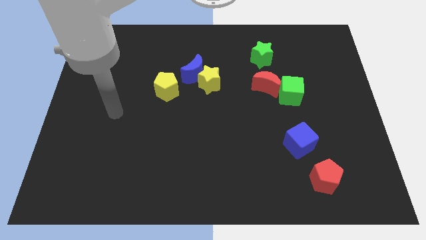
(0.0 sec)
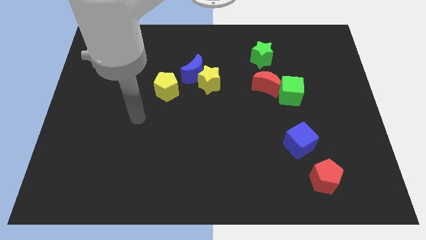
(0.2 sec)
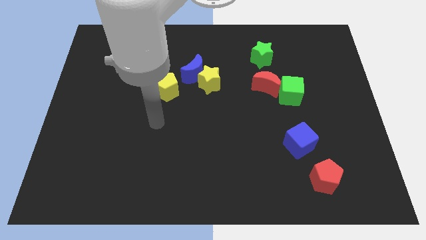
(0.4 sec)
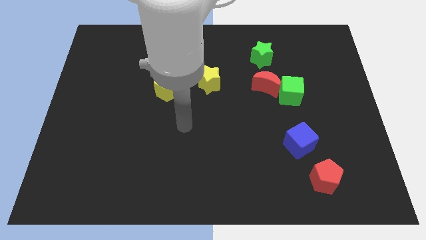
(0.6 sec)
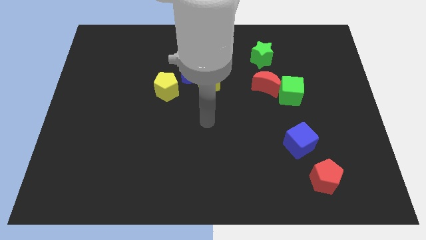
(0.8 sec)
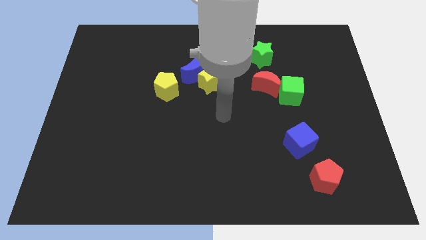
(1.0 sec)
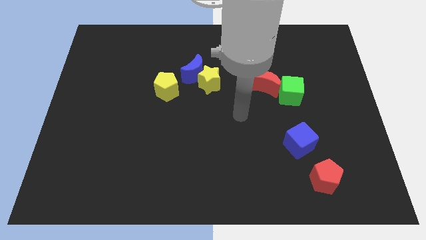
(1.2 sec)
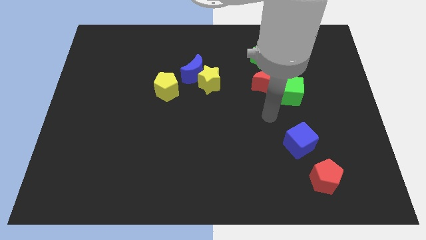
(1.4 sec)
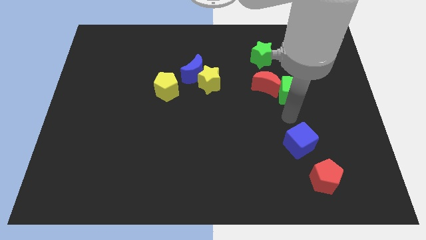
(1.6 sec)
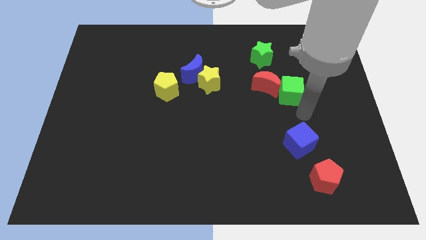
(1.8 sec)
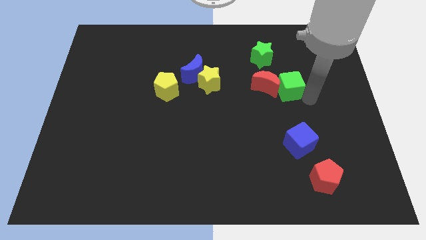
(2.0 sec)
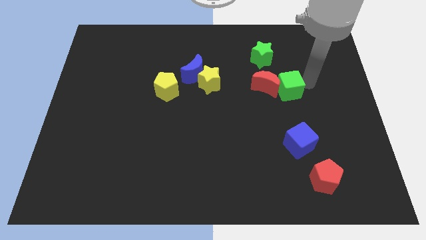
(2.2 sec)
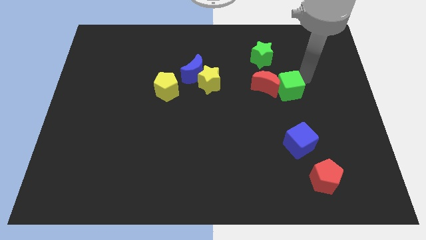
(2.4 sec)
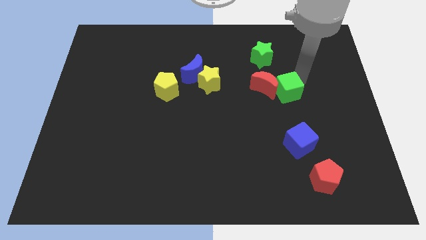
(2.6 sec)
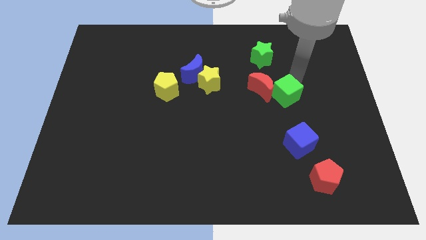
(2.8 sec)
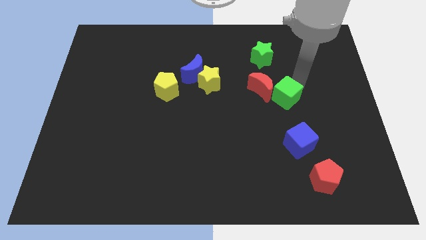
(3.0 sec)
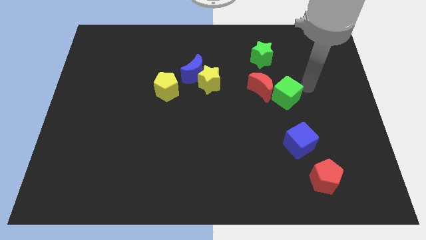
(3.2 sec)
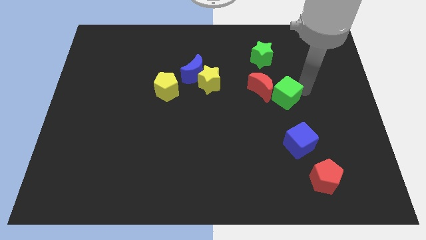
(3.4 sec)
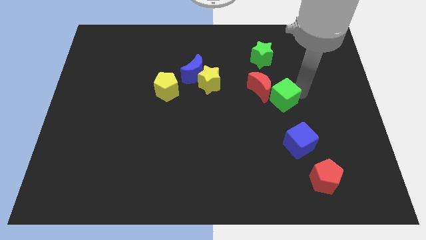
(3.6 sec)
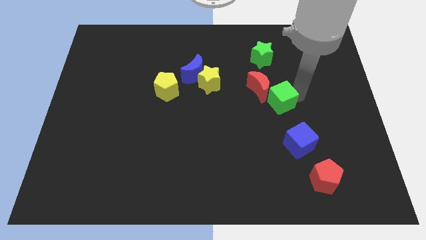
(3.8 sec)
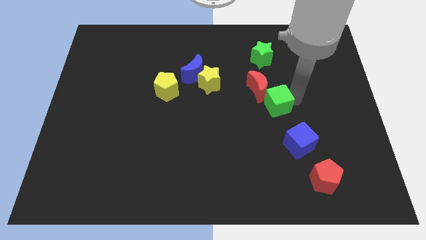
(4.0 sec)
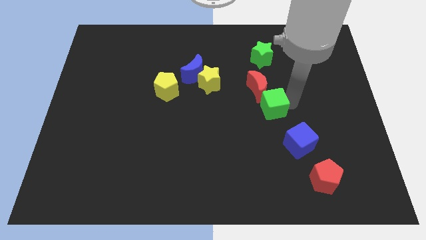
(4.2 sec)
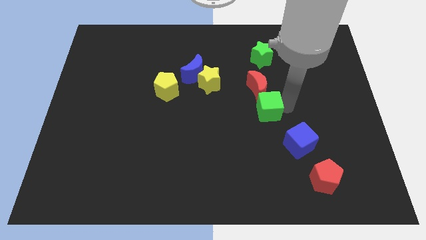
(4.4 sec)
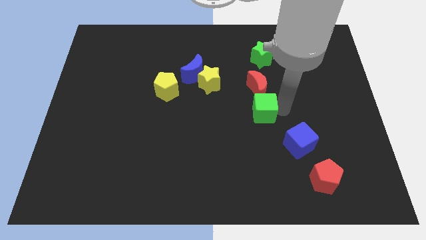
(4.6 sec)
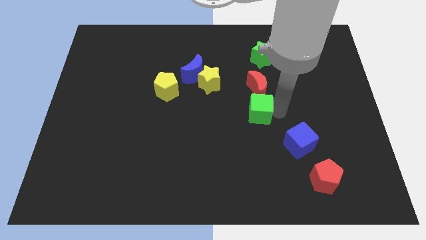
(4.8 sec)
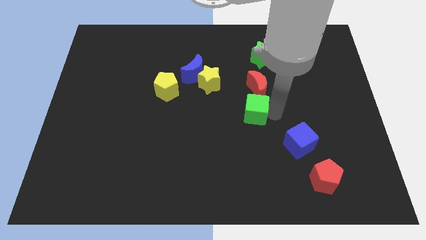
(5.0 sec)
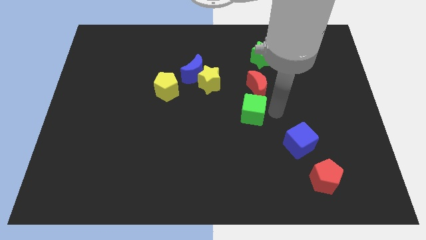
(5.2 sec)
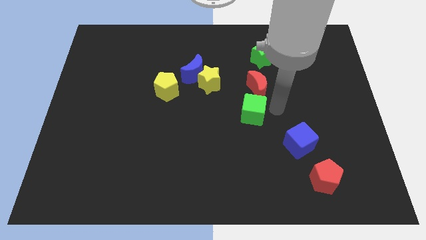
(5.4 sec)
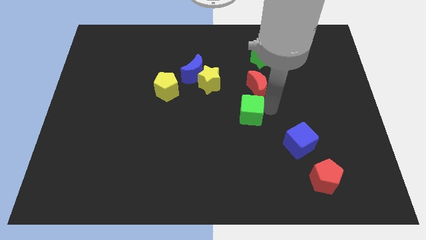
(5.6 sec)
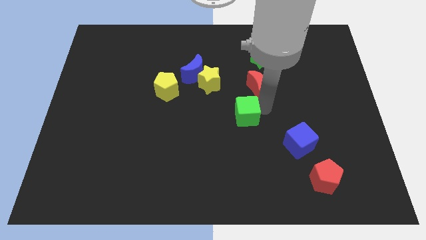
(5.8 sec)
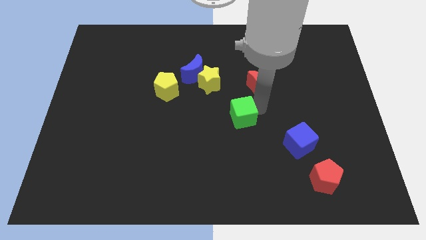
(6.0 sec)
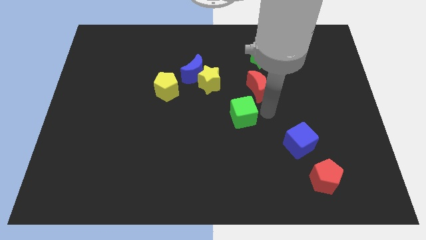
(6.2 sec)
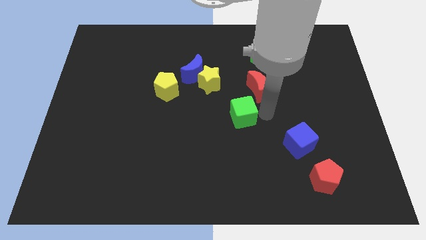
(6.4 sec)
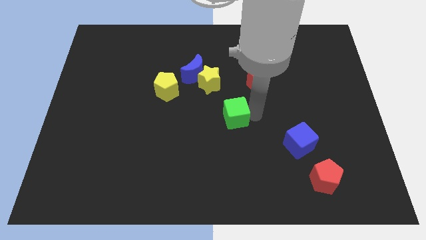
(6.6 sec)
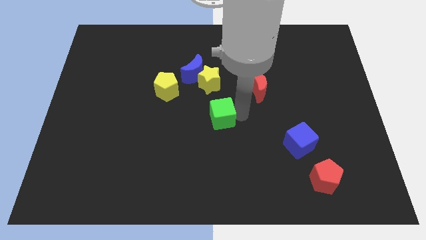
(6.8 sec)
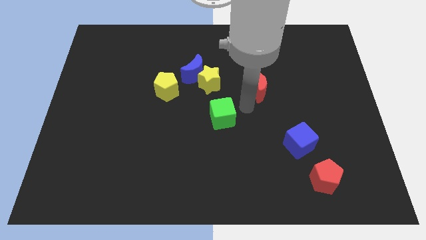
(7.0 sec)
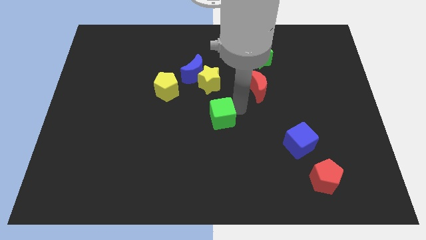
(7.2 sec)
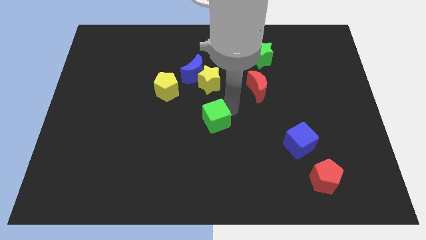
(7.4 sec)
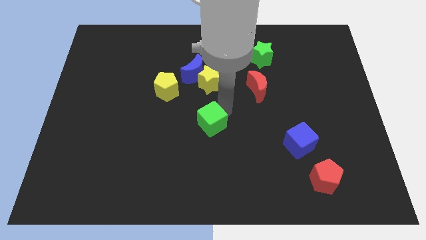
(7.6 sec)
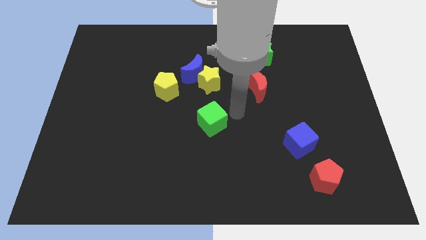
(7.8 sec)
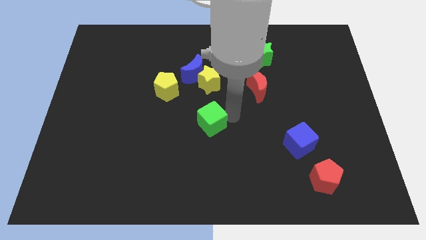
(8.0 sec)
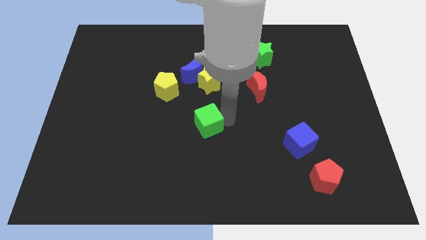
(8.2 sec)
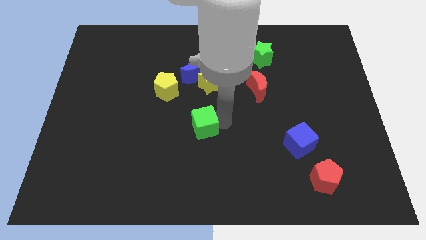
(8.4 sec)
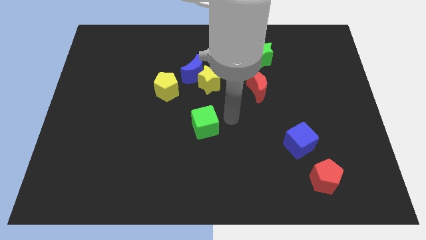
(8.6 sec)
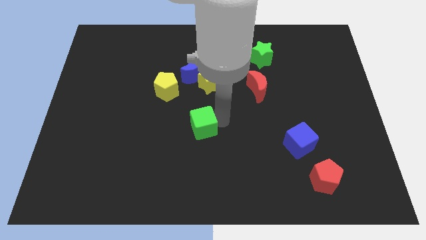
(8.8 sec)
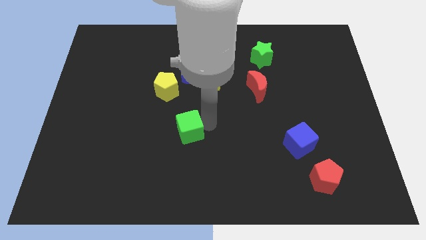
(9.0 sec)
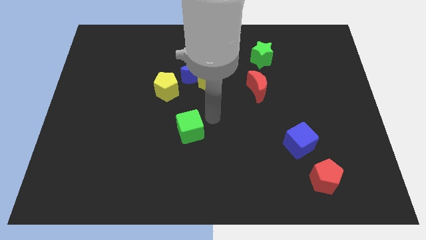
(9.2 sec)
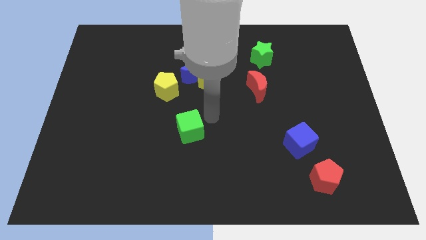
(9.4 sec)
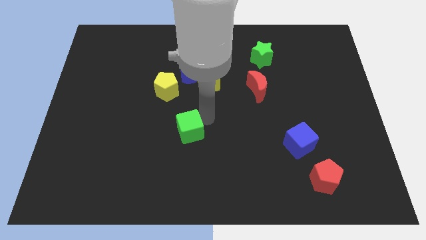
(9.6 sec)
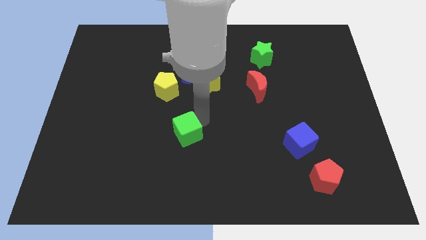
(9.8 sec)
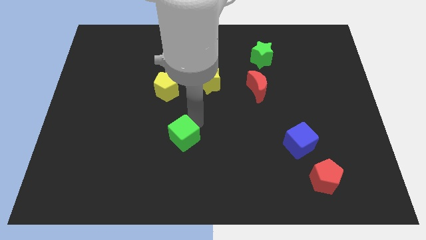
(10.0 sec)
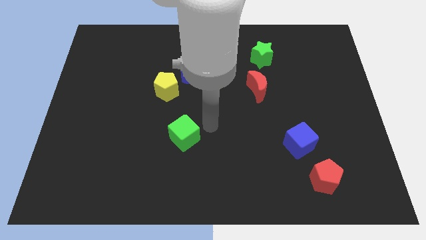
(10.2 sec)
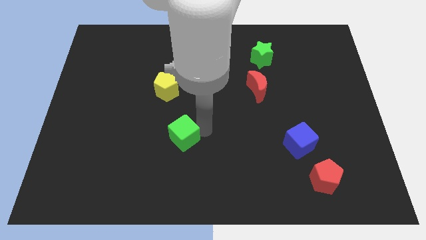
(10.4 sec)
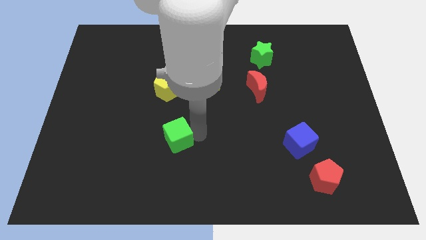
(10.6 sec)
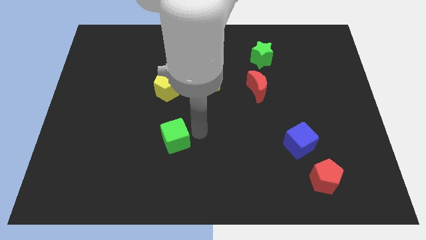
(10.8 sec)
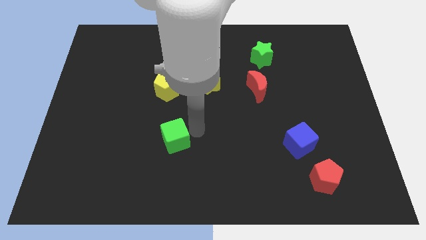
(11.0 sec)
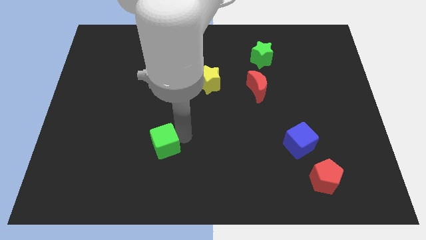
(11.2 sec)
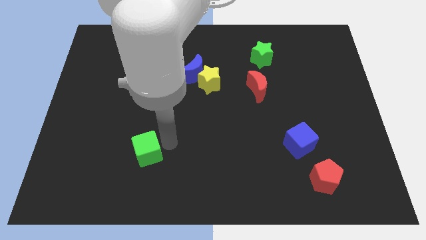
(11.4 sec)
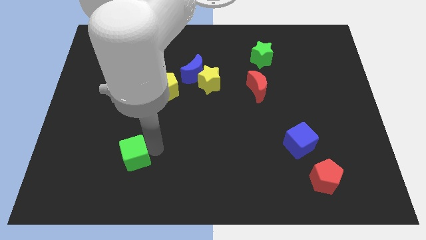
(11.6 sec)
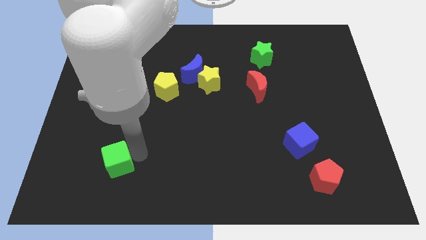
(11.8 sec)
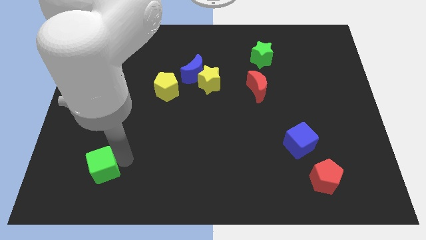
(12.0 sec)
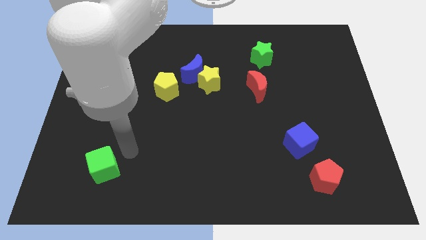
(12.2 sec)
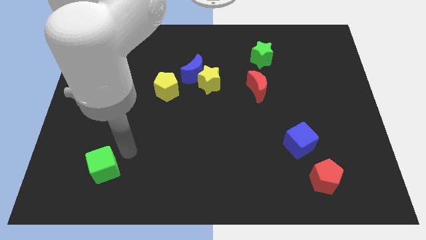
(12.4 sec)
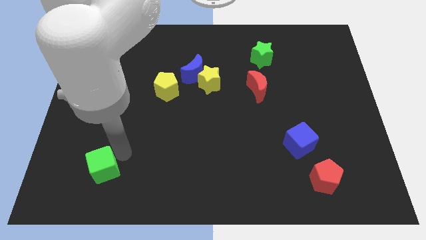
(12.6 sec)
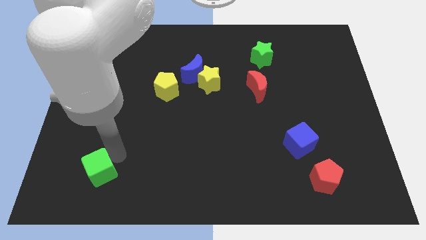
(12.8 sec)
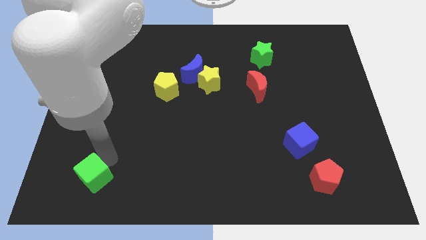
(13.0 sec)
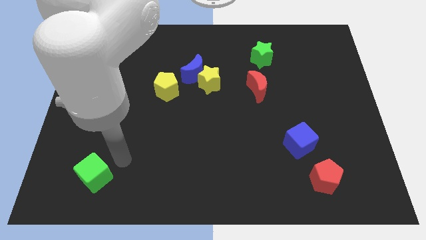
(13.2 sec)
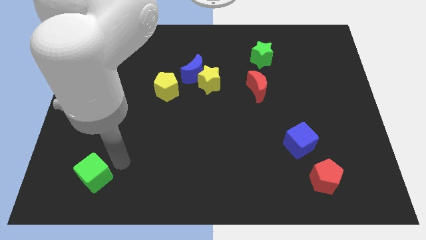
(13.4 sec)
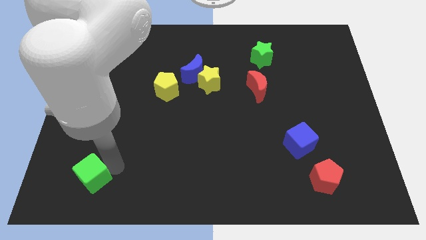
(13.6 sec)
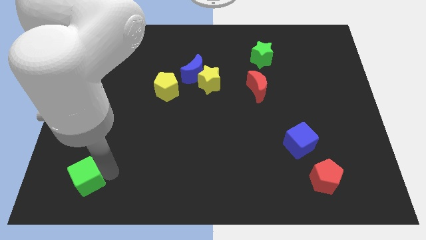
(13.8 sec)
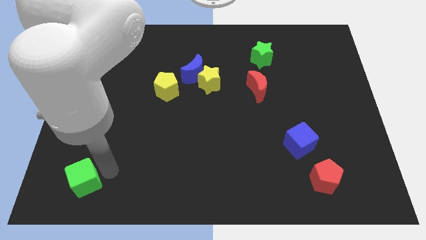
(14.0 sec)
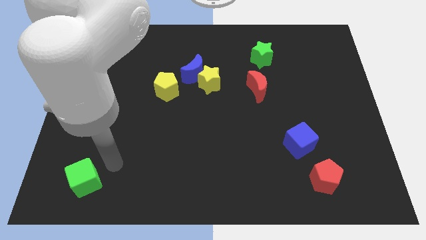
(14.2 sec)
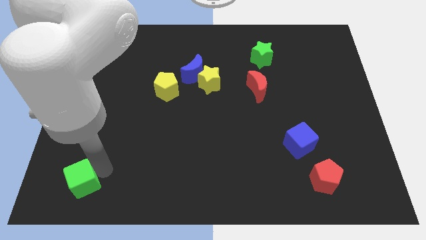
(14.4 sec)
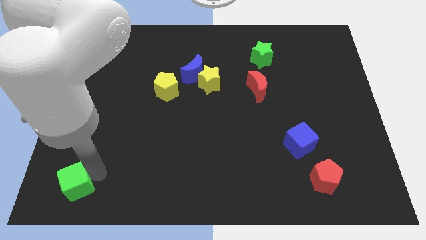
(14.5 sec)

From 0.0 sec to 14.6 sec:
slide the green cube to the lower left corner

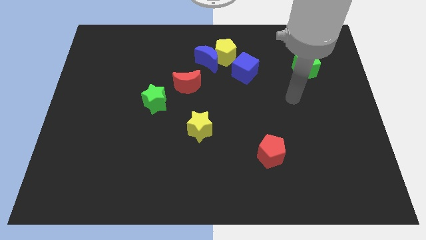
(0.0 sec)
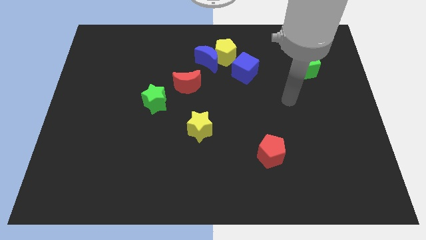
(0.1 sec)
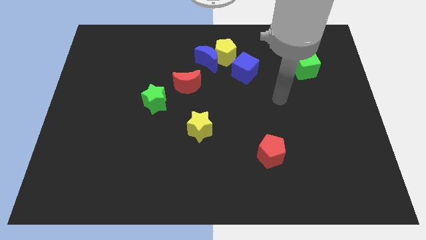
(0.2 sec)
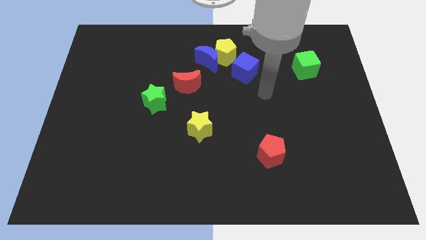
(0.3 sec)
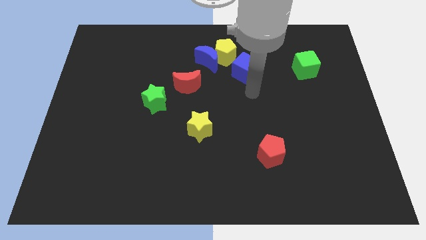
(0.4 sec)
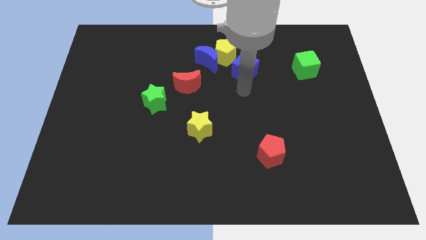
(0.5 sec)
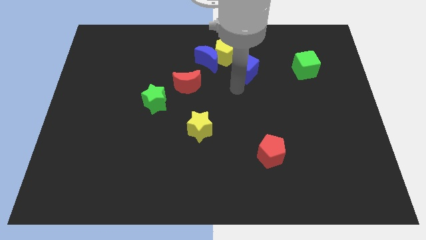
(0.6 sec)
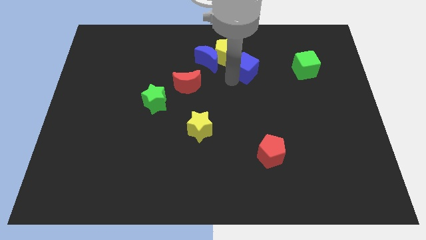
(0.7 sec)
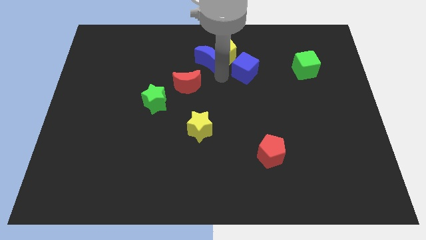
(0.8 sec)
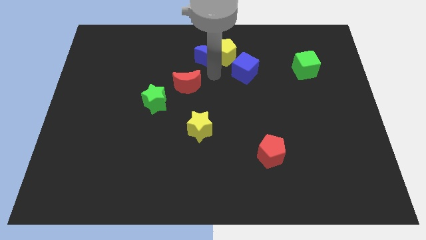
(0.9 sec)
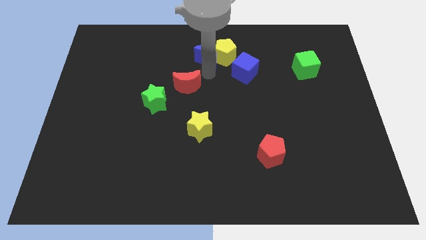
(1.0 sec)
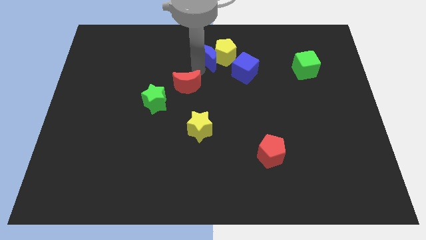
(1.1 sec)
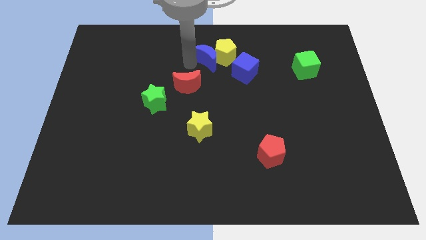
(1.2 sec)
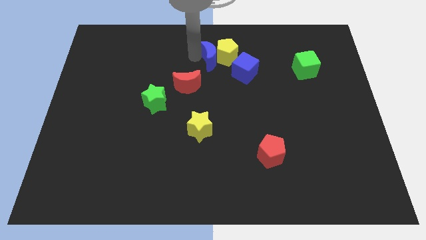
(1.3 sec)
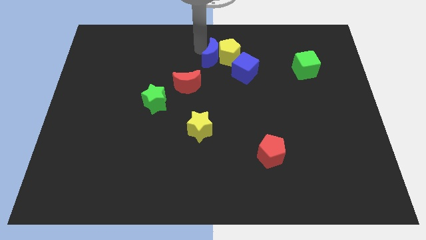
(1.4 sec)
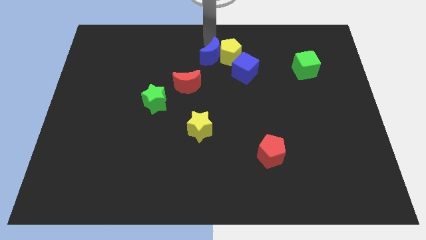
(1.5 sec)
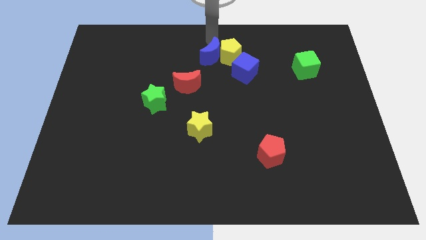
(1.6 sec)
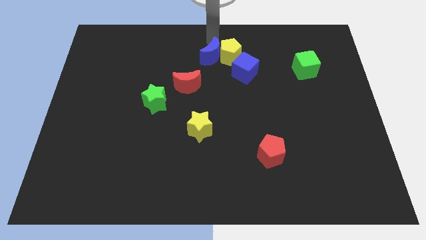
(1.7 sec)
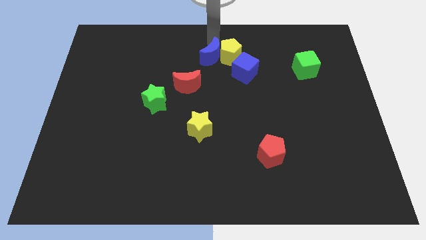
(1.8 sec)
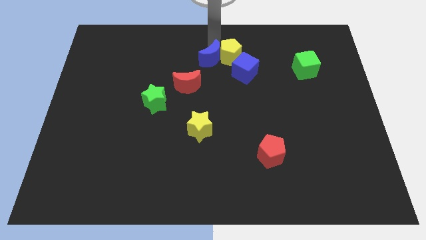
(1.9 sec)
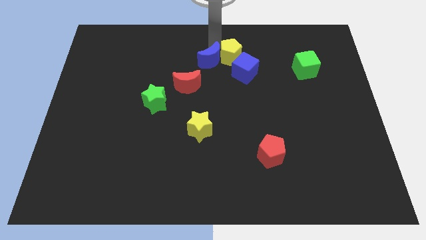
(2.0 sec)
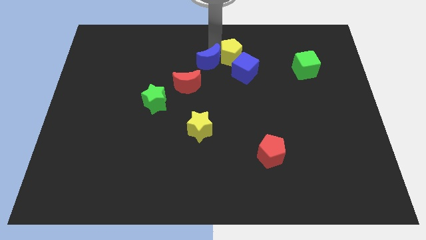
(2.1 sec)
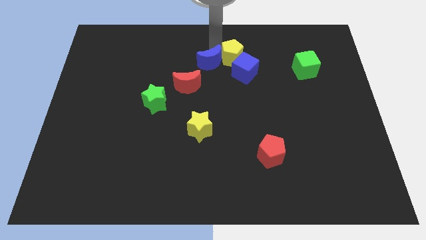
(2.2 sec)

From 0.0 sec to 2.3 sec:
put the blue moon to the middle of the board
